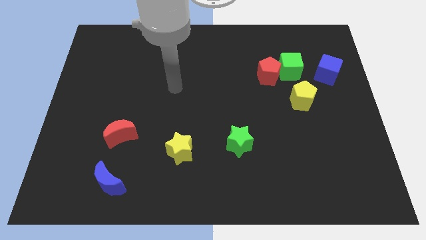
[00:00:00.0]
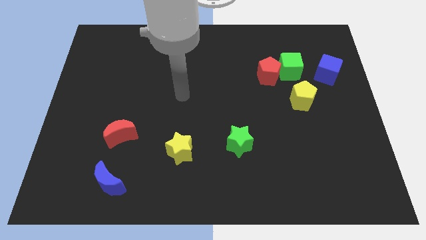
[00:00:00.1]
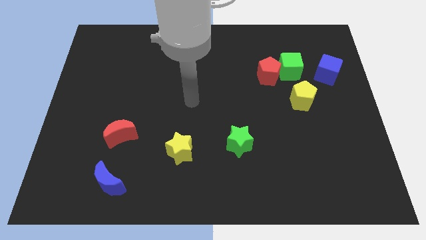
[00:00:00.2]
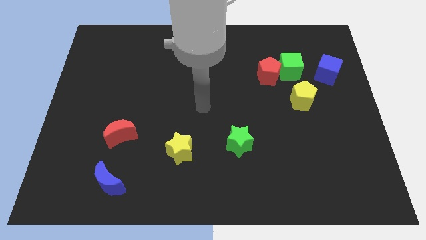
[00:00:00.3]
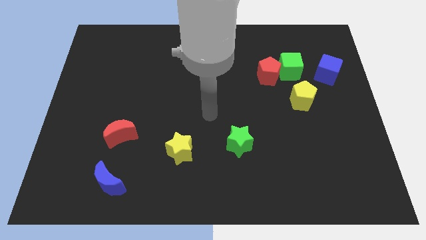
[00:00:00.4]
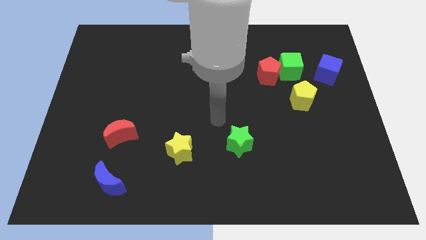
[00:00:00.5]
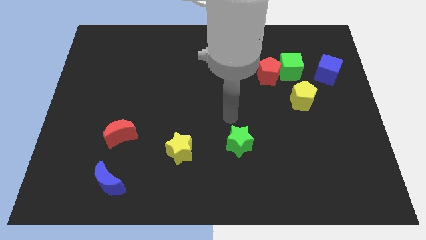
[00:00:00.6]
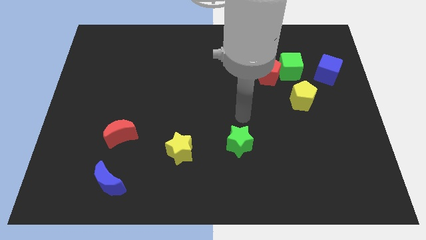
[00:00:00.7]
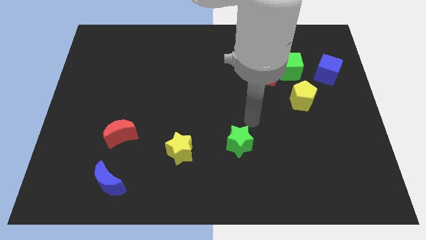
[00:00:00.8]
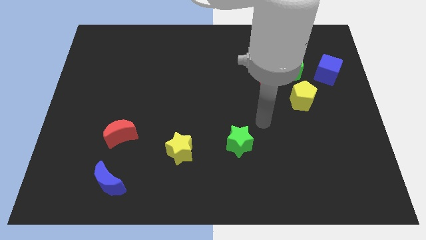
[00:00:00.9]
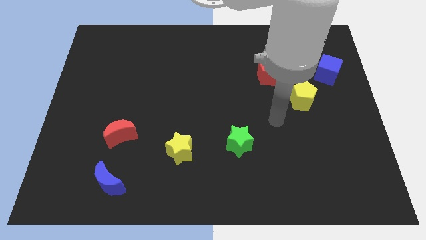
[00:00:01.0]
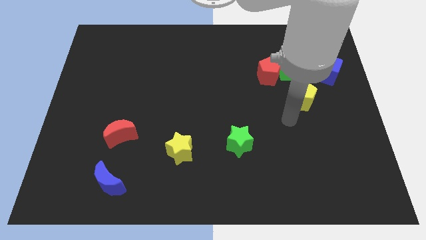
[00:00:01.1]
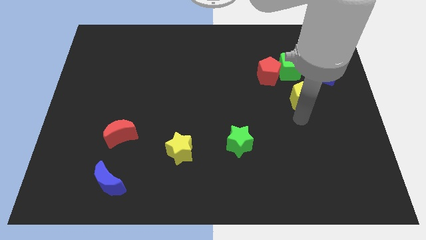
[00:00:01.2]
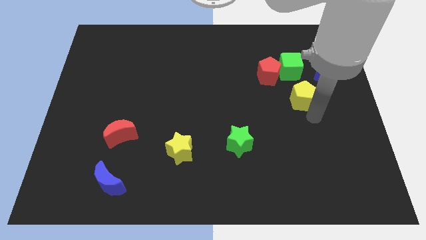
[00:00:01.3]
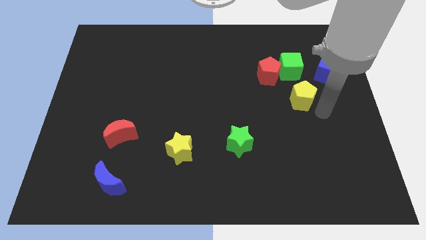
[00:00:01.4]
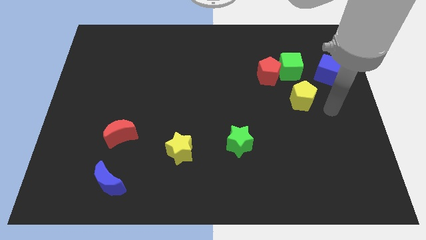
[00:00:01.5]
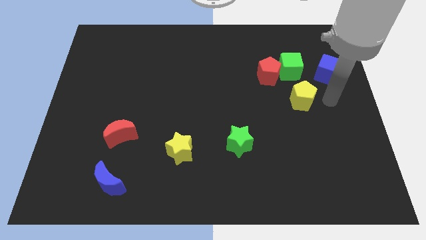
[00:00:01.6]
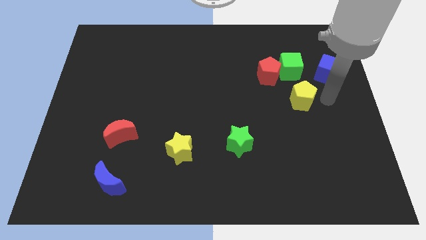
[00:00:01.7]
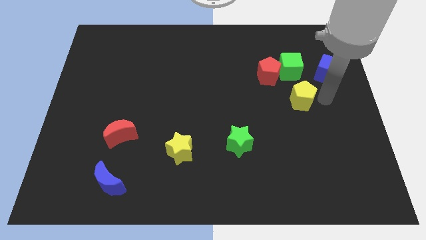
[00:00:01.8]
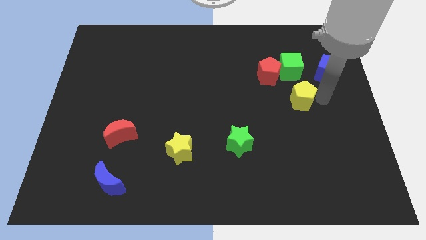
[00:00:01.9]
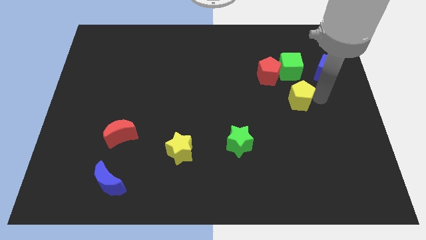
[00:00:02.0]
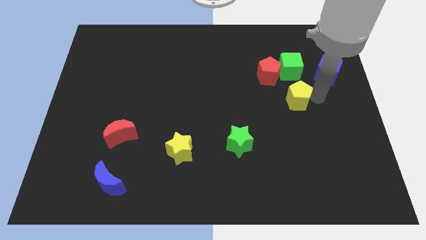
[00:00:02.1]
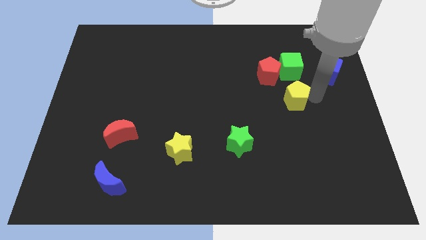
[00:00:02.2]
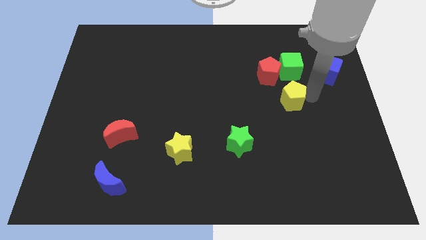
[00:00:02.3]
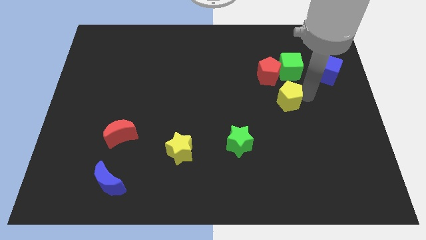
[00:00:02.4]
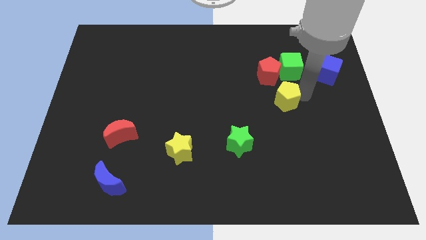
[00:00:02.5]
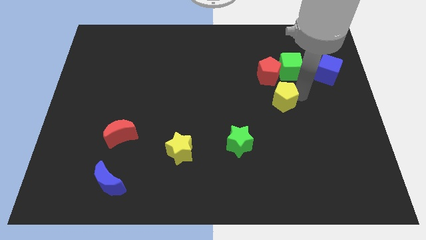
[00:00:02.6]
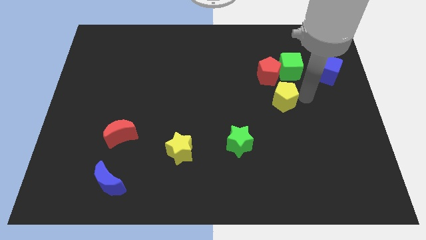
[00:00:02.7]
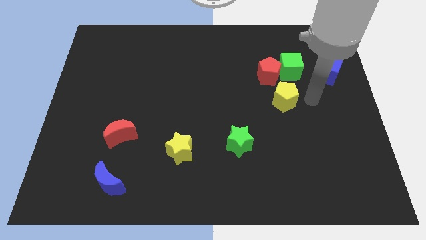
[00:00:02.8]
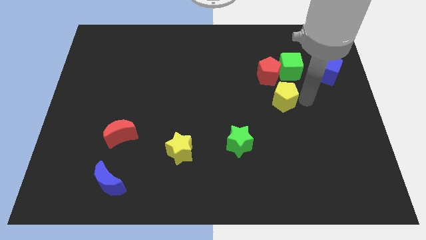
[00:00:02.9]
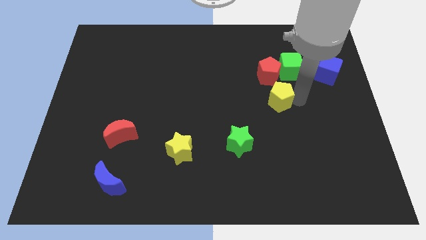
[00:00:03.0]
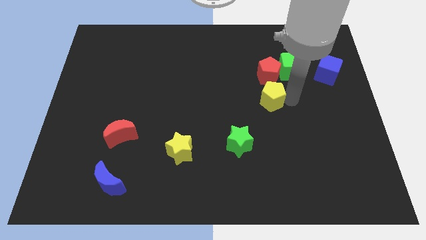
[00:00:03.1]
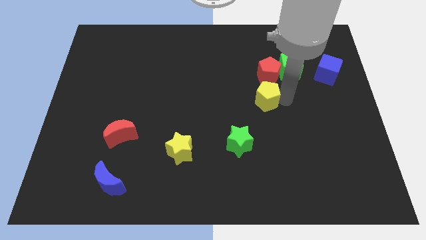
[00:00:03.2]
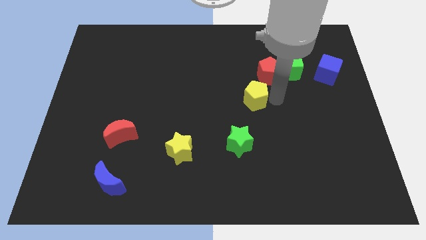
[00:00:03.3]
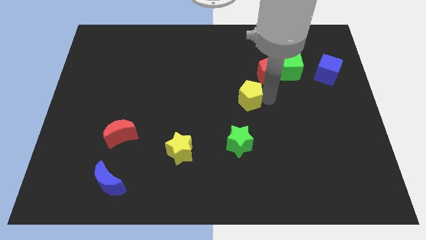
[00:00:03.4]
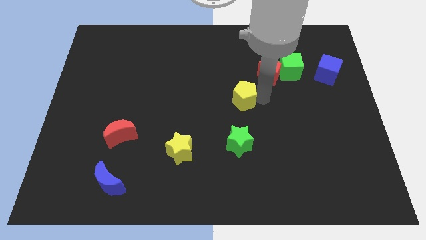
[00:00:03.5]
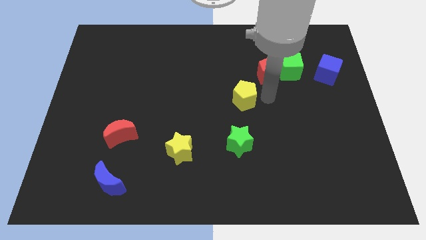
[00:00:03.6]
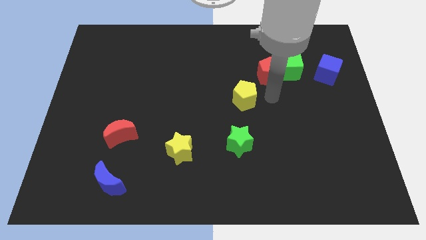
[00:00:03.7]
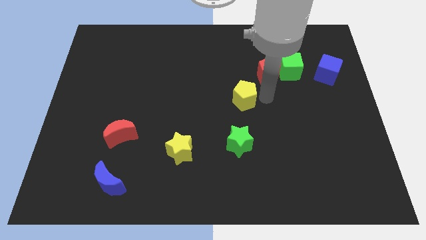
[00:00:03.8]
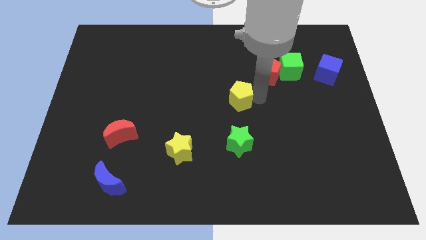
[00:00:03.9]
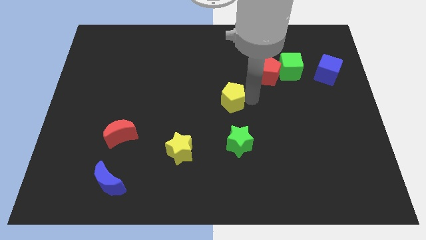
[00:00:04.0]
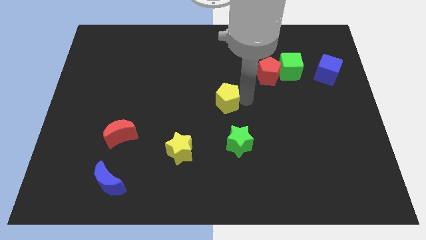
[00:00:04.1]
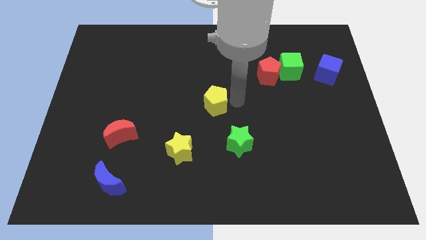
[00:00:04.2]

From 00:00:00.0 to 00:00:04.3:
slide the yellow pentagon to the left

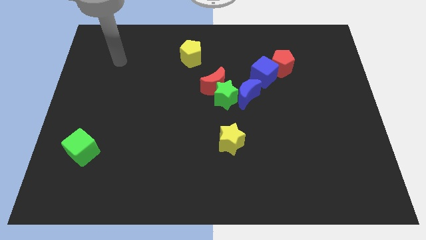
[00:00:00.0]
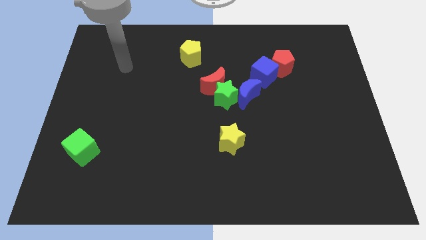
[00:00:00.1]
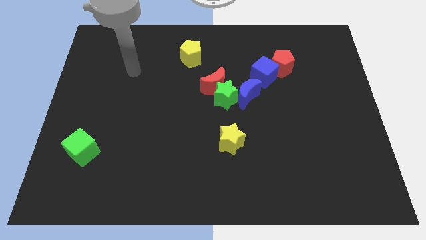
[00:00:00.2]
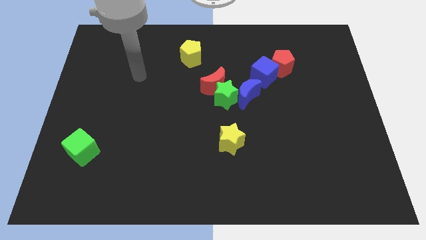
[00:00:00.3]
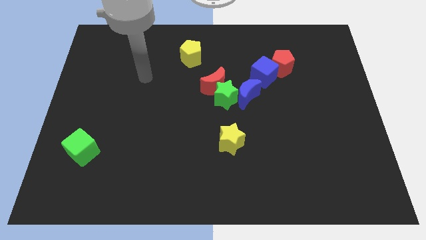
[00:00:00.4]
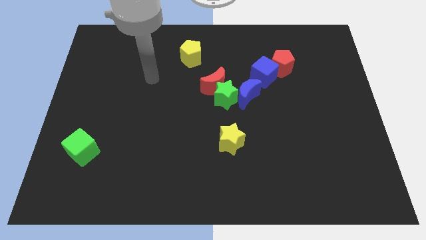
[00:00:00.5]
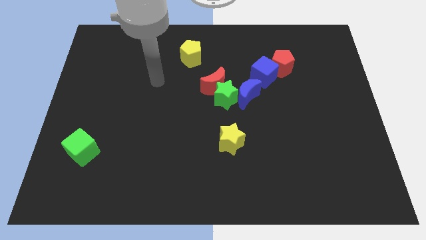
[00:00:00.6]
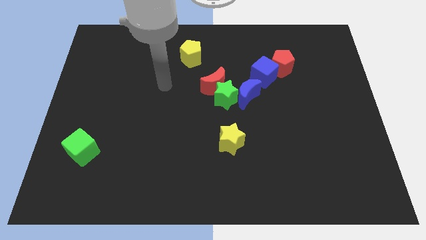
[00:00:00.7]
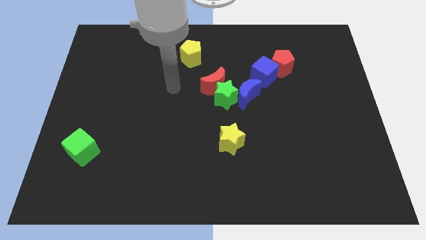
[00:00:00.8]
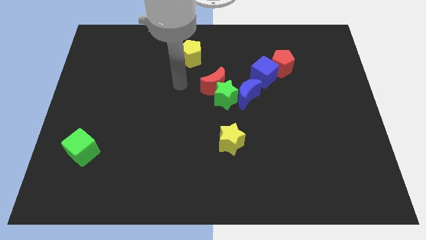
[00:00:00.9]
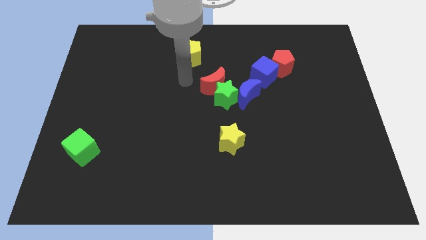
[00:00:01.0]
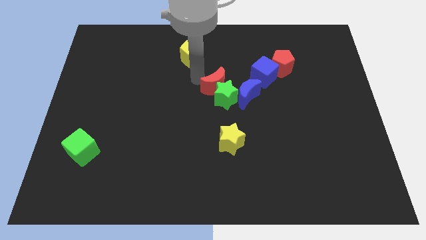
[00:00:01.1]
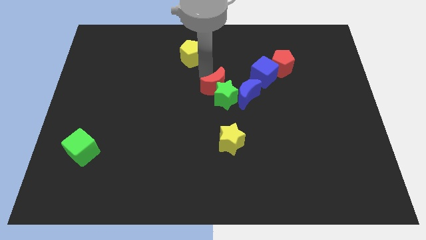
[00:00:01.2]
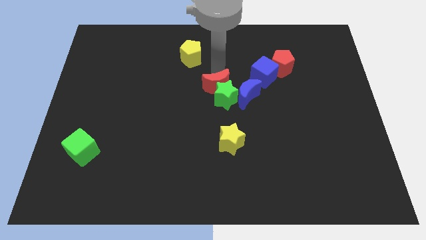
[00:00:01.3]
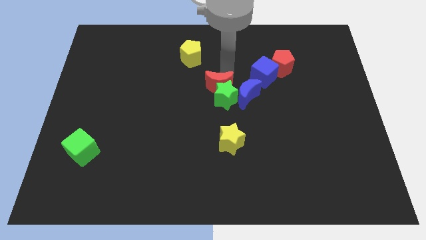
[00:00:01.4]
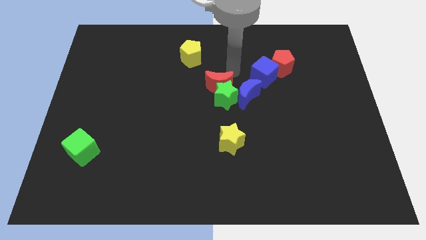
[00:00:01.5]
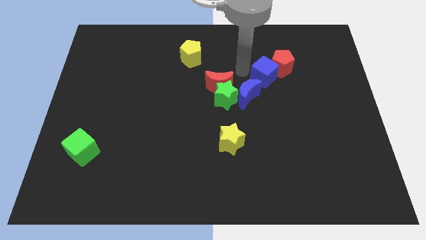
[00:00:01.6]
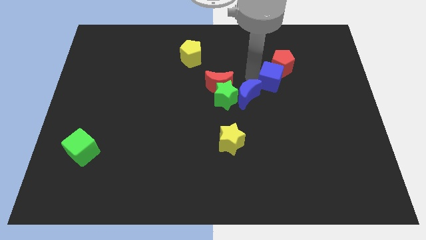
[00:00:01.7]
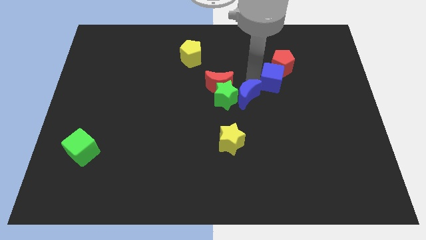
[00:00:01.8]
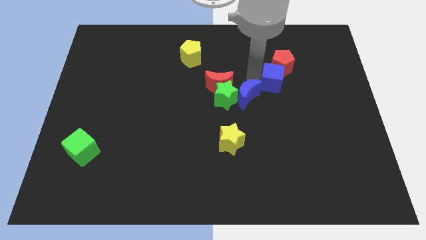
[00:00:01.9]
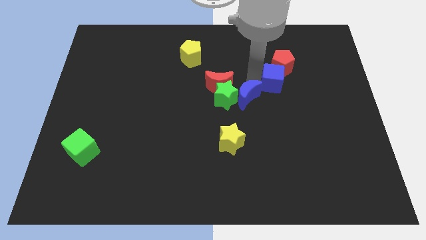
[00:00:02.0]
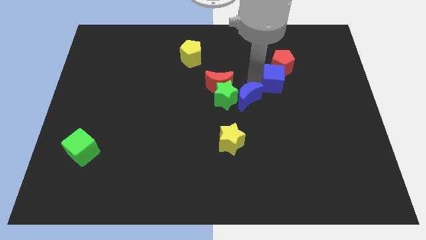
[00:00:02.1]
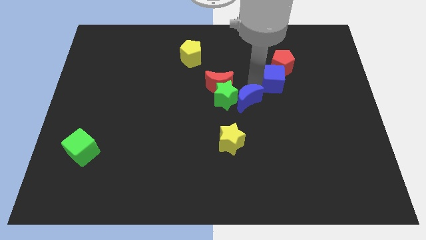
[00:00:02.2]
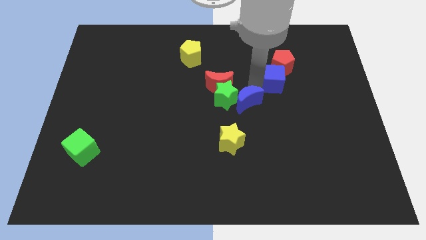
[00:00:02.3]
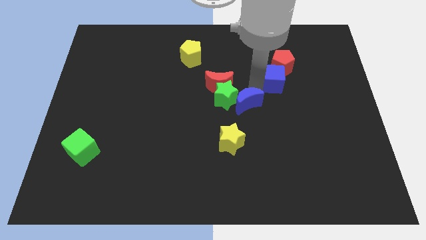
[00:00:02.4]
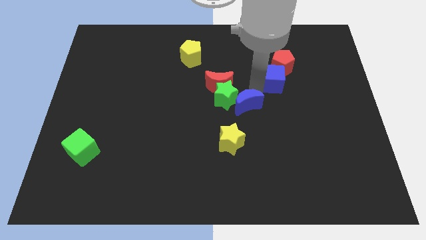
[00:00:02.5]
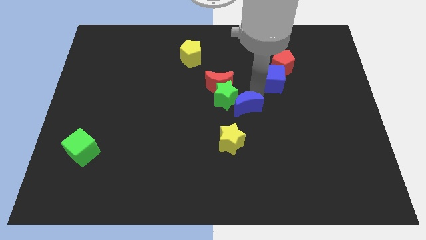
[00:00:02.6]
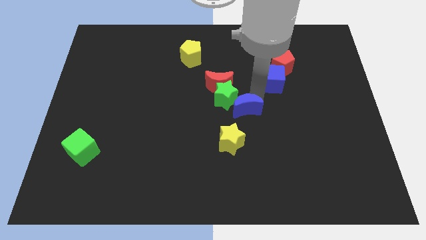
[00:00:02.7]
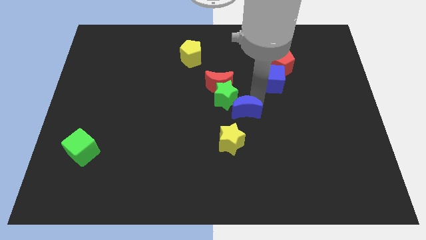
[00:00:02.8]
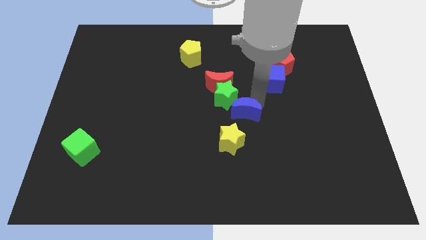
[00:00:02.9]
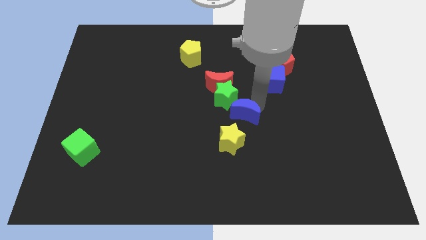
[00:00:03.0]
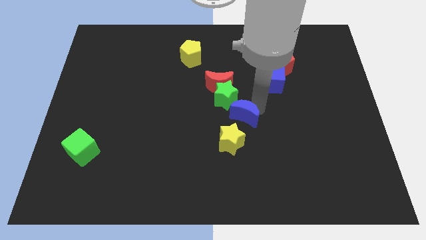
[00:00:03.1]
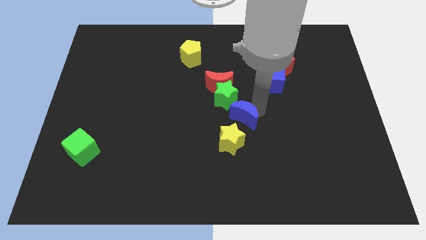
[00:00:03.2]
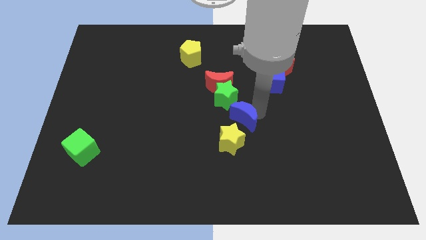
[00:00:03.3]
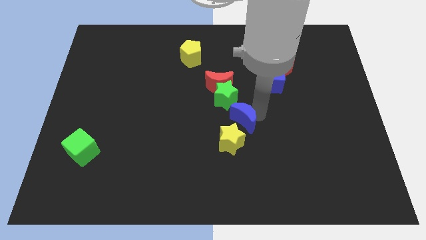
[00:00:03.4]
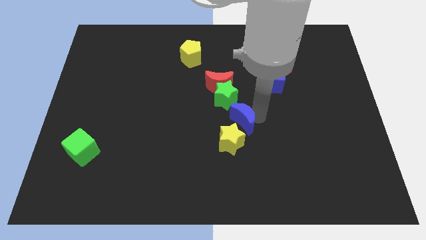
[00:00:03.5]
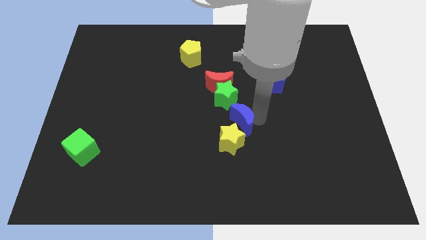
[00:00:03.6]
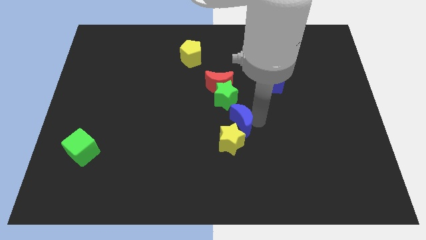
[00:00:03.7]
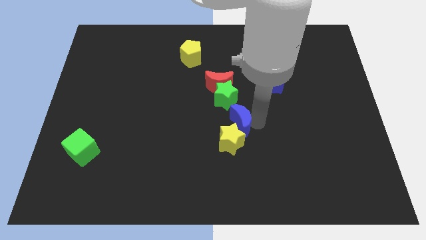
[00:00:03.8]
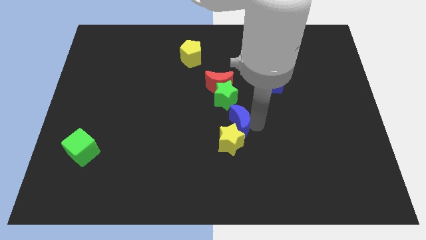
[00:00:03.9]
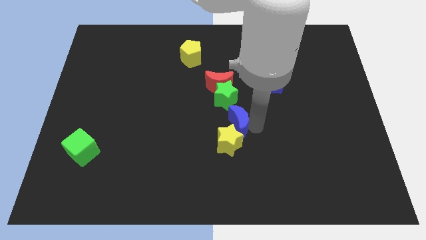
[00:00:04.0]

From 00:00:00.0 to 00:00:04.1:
move the blue moon slightly downwards and left diagonally
